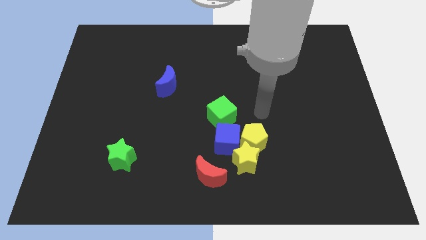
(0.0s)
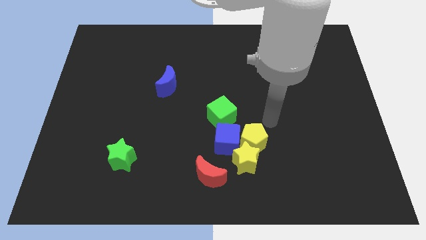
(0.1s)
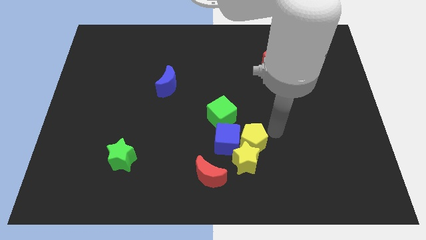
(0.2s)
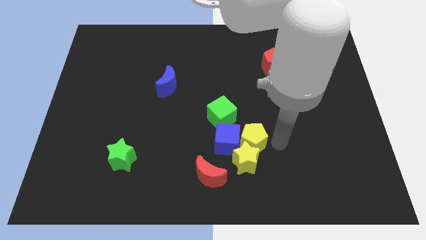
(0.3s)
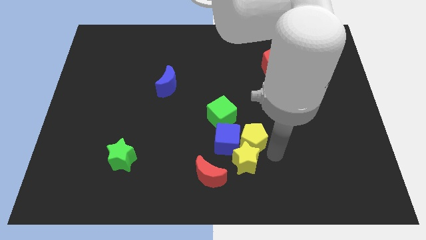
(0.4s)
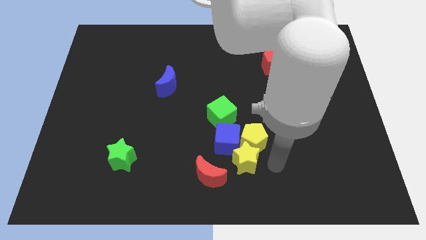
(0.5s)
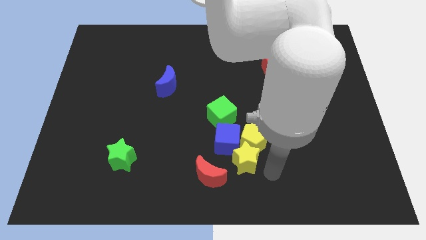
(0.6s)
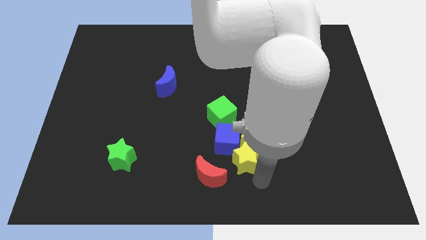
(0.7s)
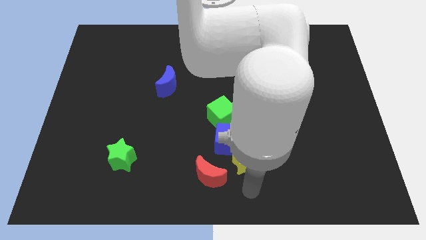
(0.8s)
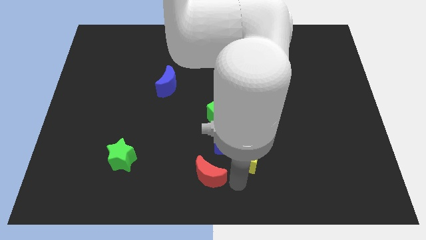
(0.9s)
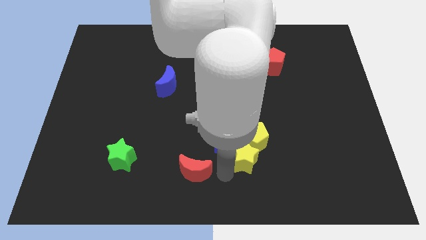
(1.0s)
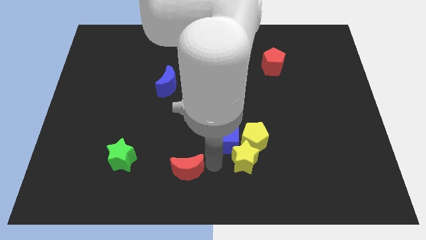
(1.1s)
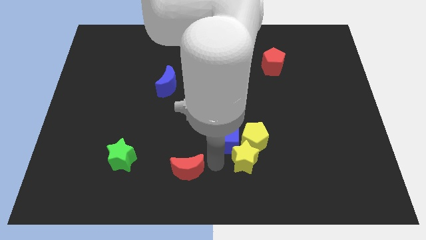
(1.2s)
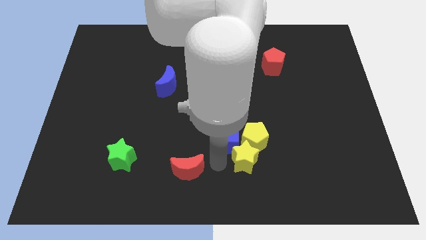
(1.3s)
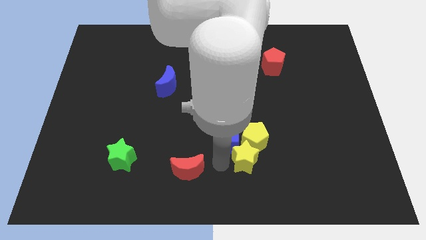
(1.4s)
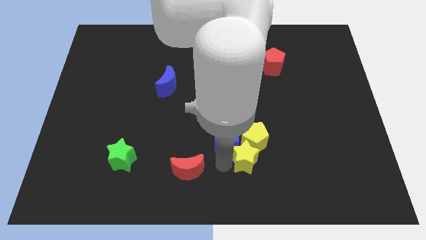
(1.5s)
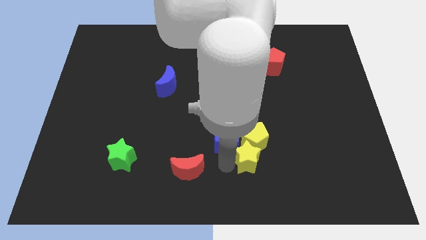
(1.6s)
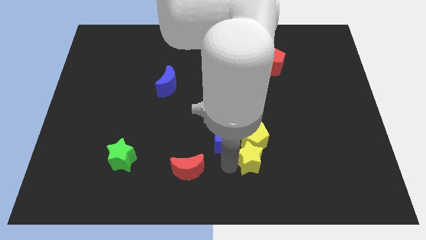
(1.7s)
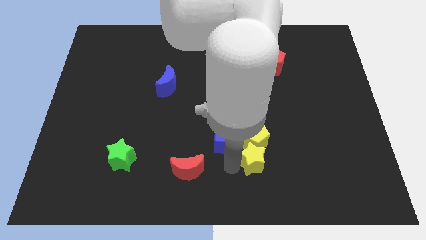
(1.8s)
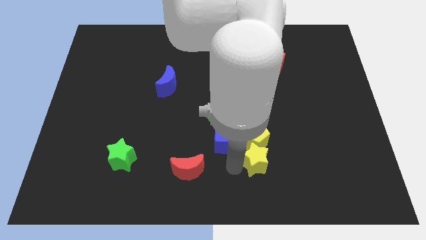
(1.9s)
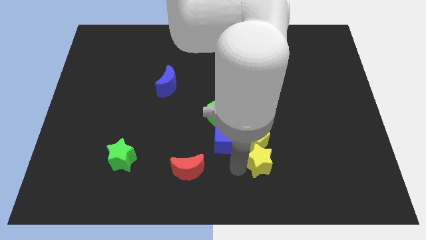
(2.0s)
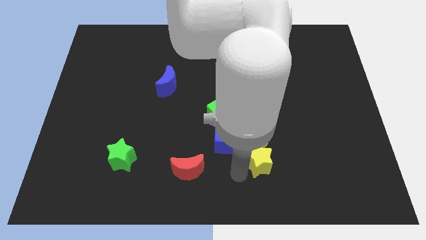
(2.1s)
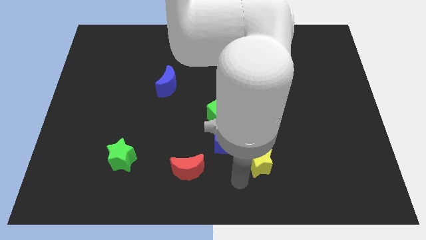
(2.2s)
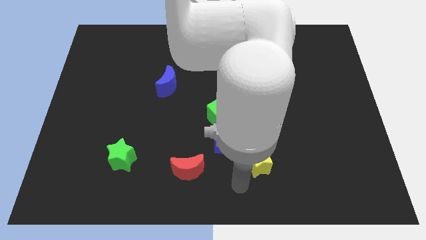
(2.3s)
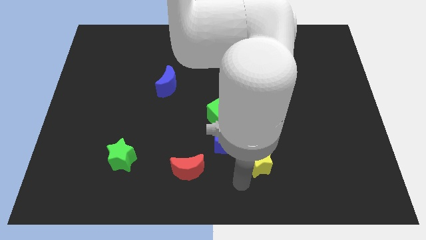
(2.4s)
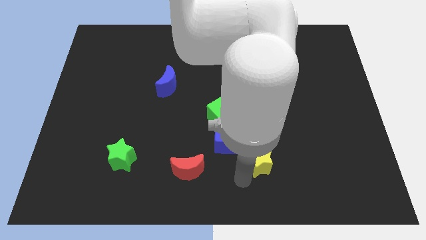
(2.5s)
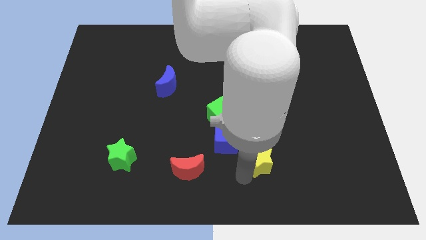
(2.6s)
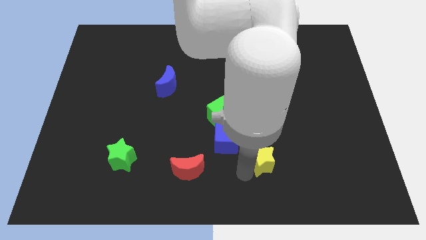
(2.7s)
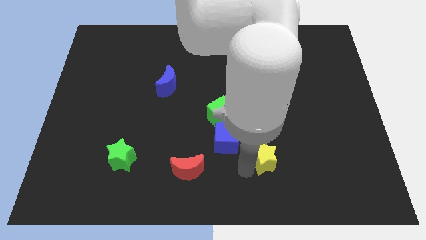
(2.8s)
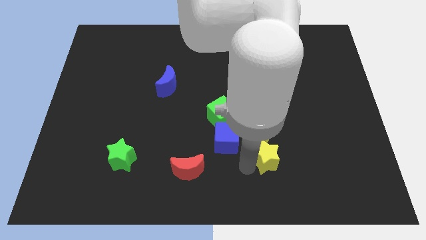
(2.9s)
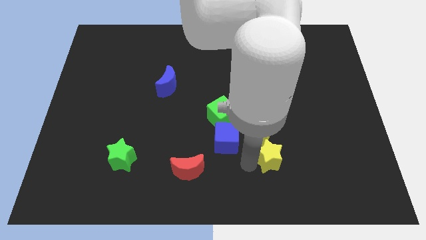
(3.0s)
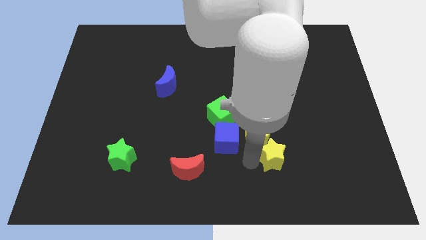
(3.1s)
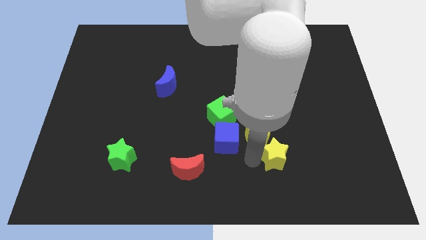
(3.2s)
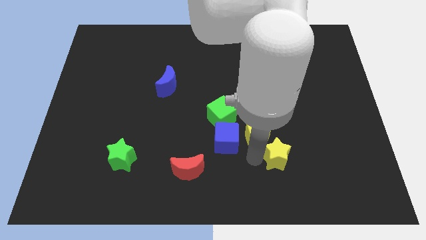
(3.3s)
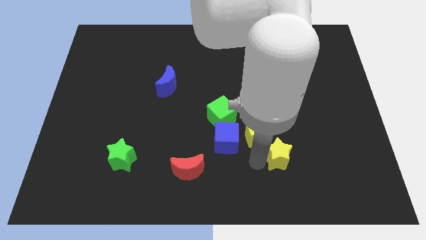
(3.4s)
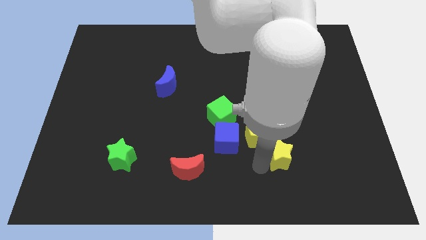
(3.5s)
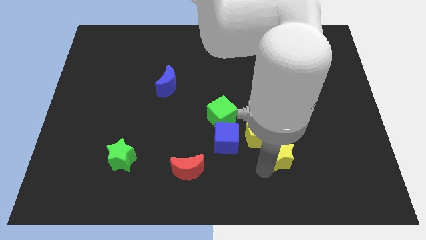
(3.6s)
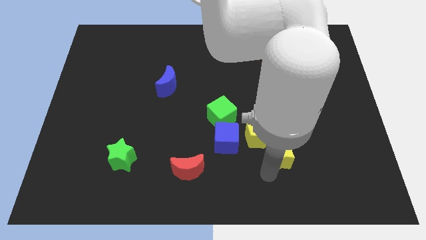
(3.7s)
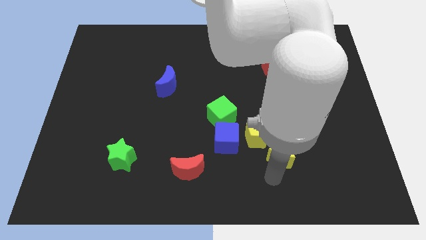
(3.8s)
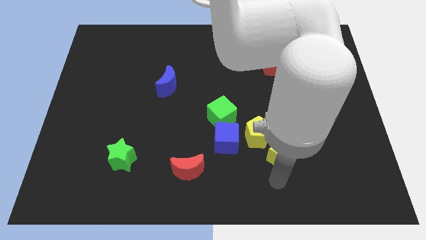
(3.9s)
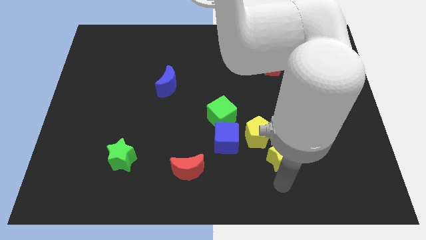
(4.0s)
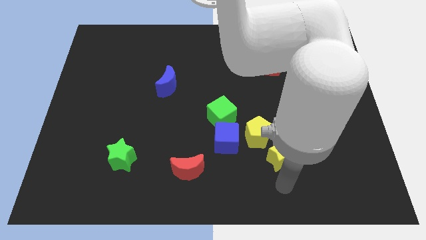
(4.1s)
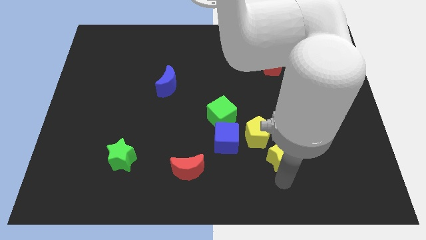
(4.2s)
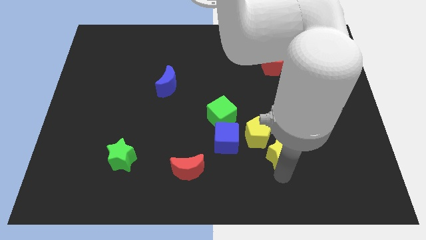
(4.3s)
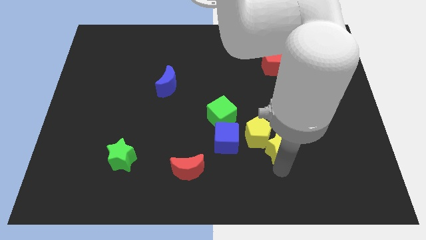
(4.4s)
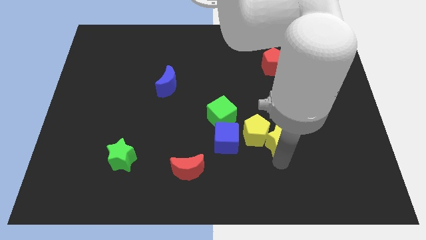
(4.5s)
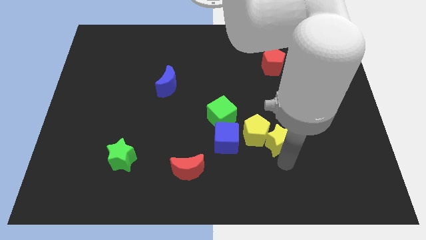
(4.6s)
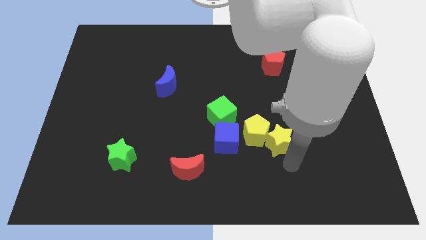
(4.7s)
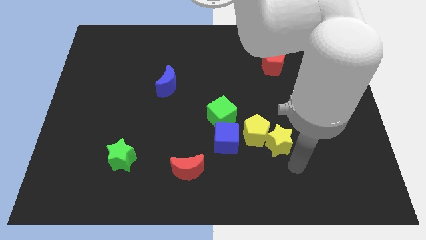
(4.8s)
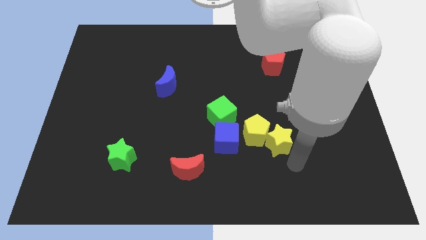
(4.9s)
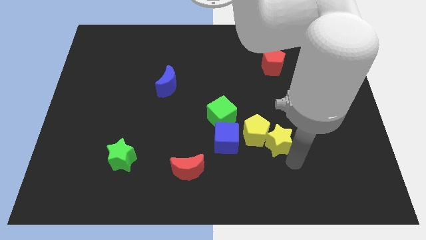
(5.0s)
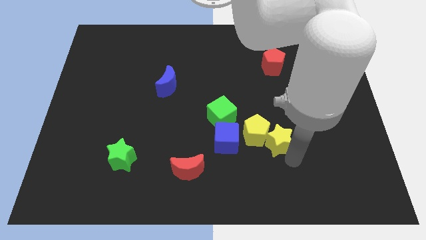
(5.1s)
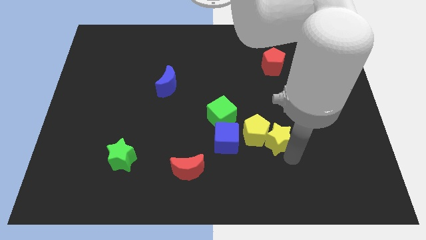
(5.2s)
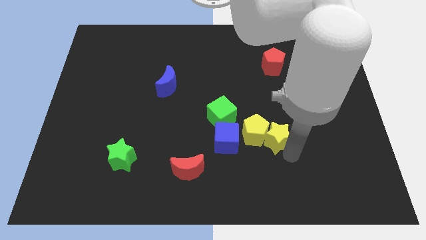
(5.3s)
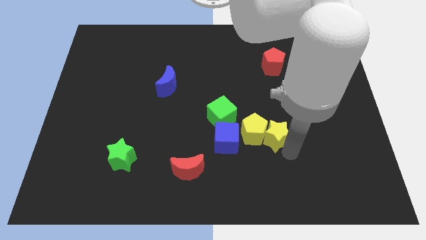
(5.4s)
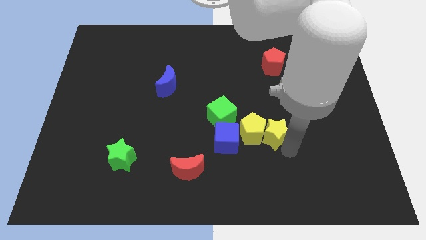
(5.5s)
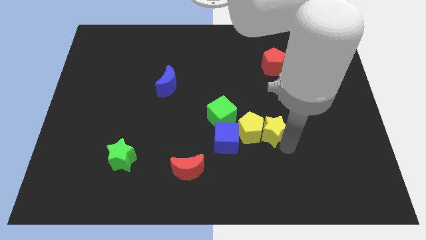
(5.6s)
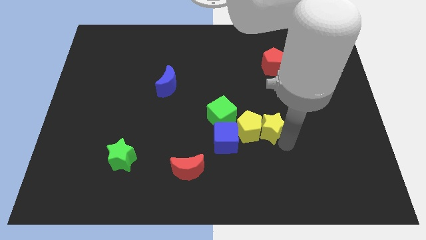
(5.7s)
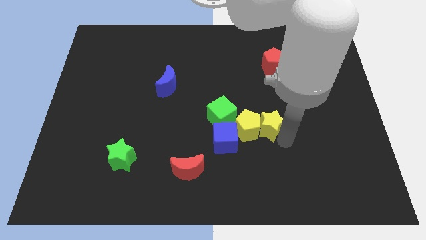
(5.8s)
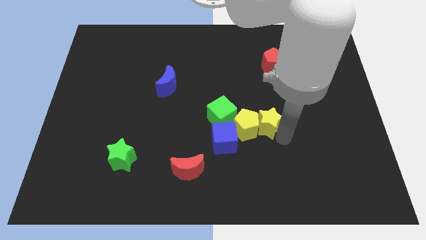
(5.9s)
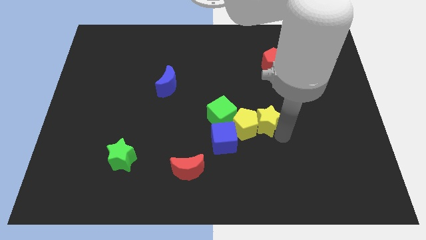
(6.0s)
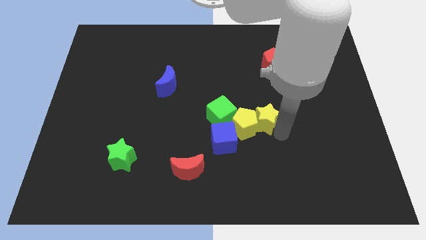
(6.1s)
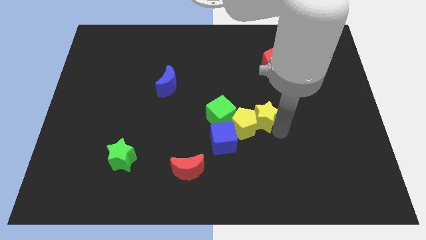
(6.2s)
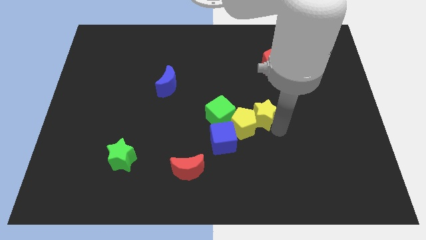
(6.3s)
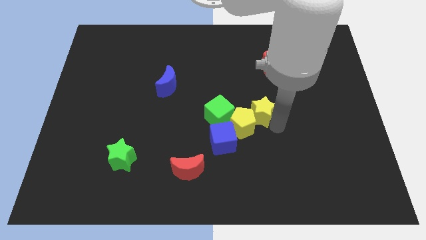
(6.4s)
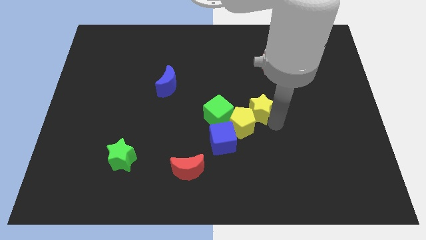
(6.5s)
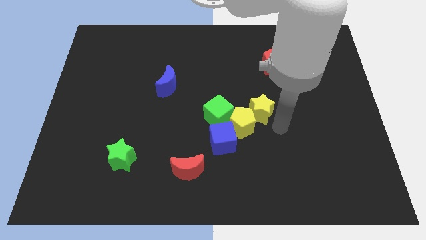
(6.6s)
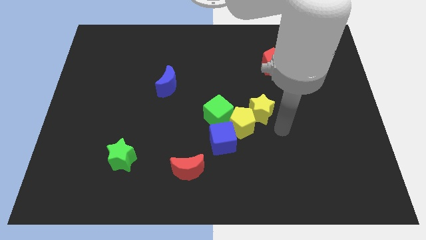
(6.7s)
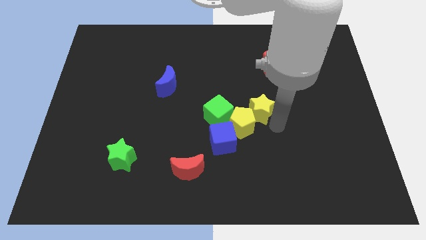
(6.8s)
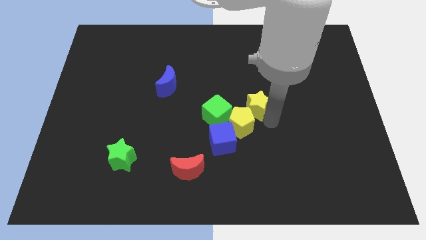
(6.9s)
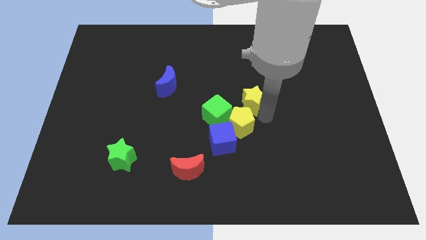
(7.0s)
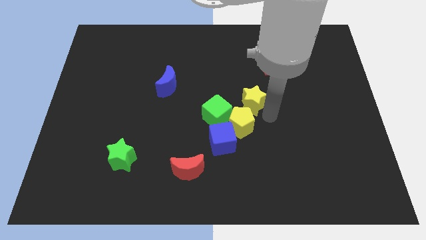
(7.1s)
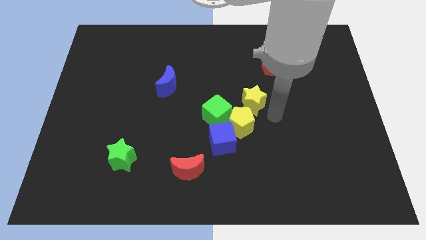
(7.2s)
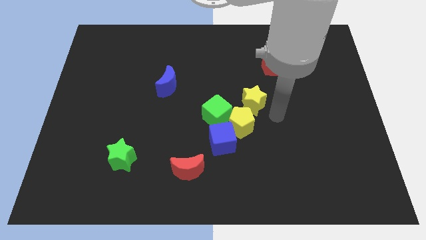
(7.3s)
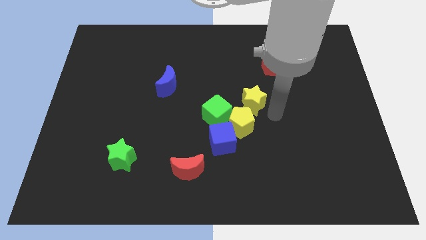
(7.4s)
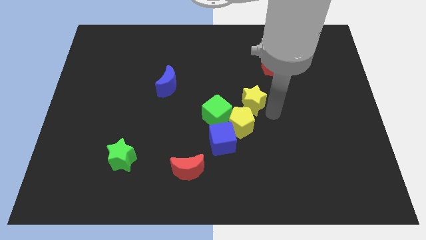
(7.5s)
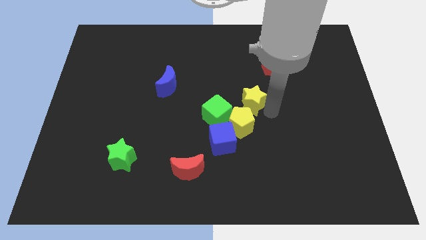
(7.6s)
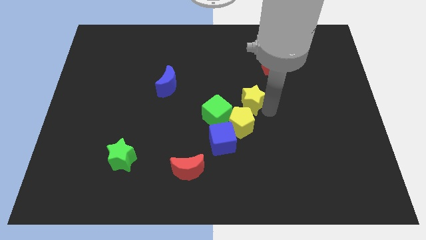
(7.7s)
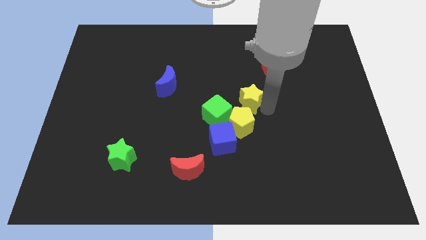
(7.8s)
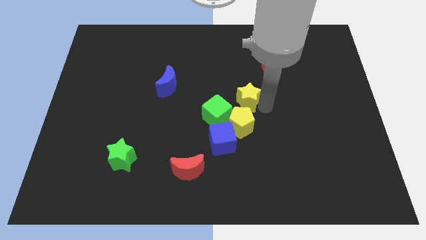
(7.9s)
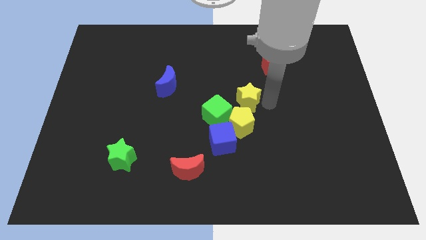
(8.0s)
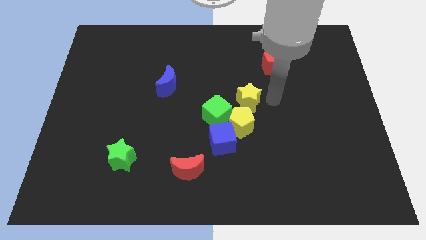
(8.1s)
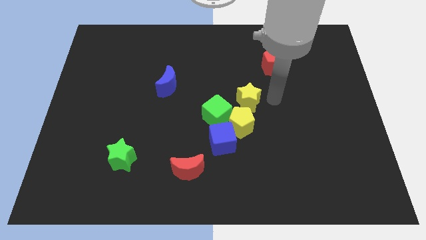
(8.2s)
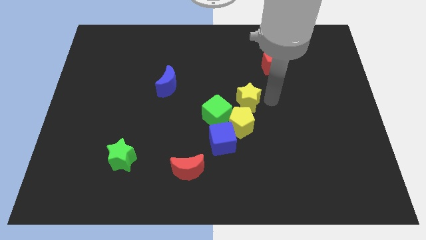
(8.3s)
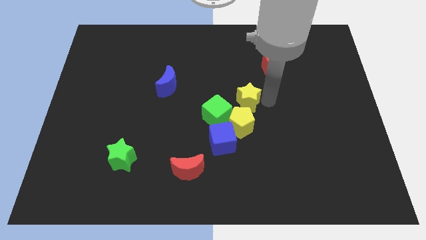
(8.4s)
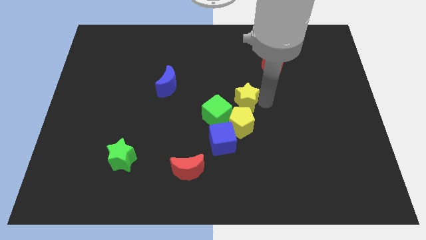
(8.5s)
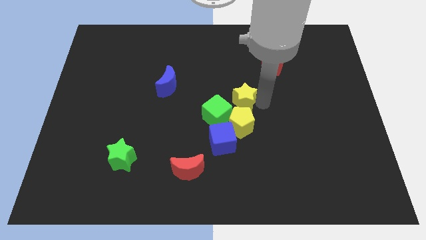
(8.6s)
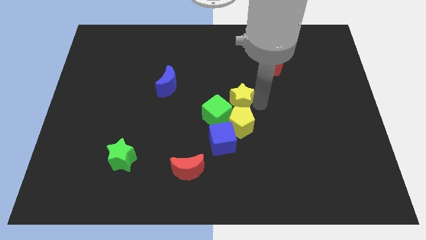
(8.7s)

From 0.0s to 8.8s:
push the yellow star above the blue cube
